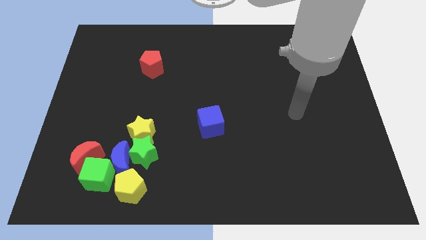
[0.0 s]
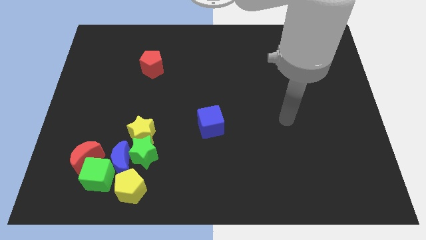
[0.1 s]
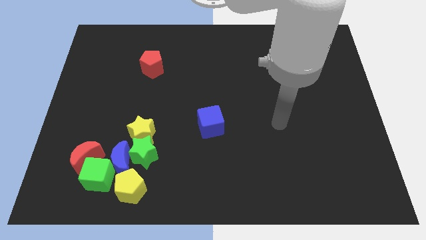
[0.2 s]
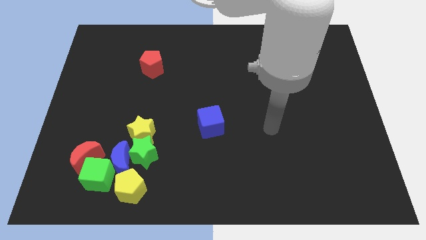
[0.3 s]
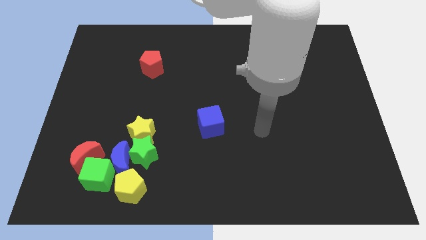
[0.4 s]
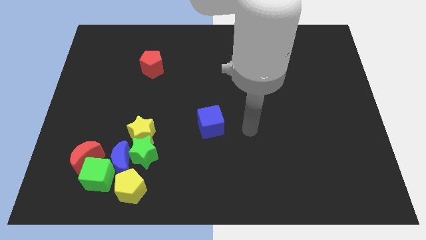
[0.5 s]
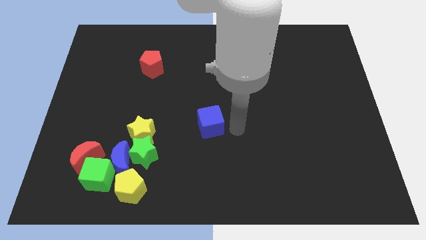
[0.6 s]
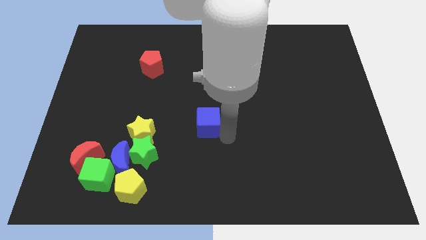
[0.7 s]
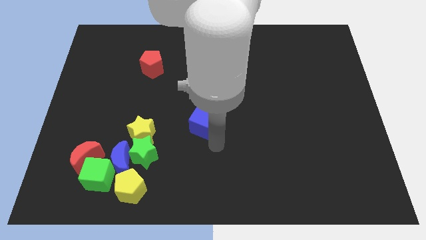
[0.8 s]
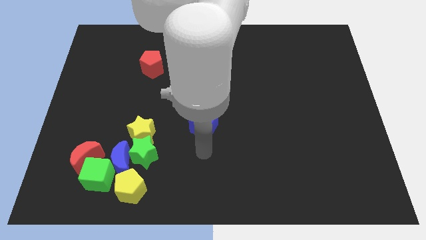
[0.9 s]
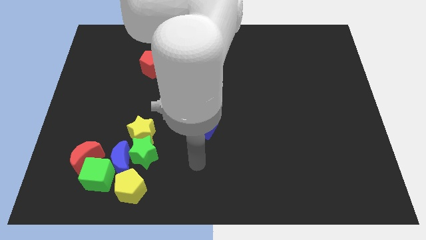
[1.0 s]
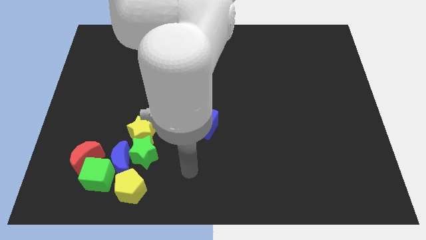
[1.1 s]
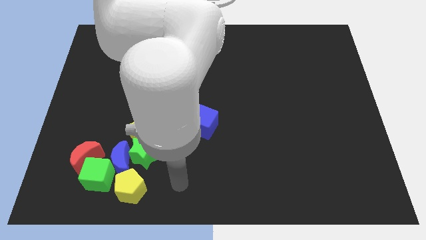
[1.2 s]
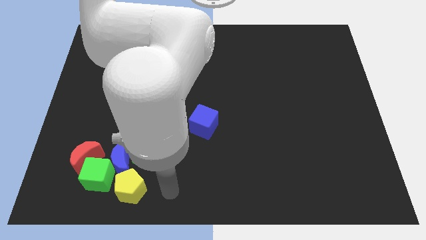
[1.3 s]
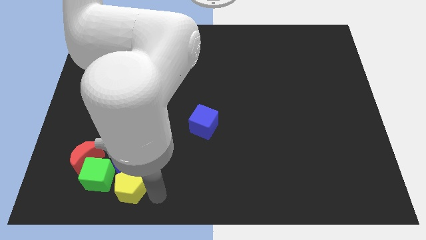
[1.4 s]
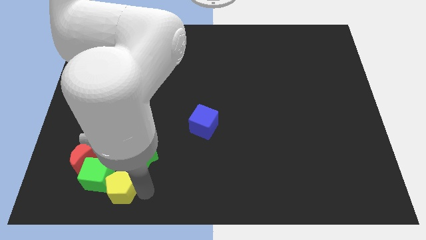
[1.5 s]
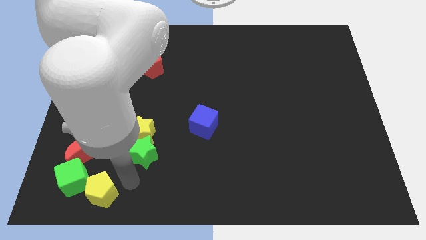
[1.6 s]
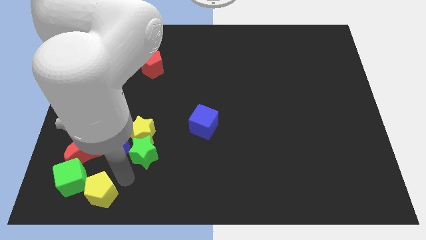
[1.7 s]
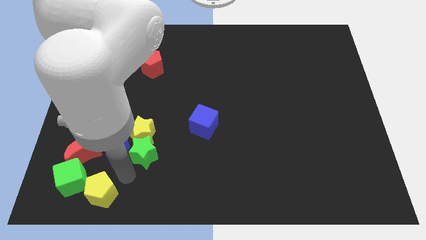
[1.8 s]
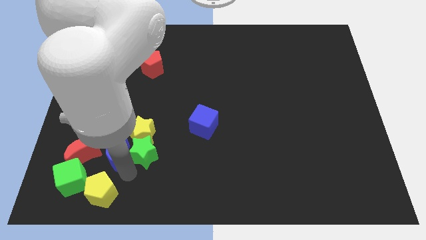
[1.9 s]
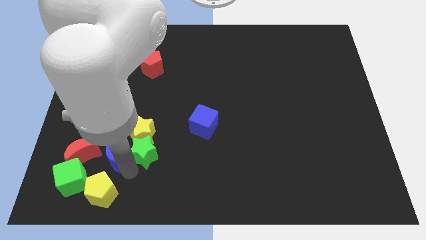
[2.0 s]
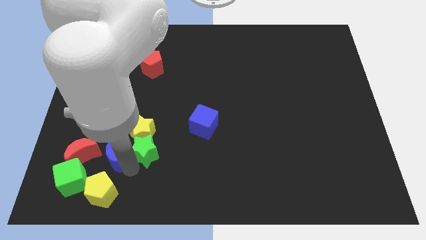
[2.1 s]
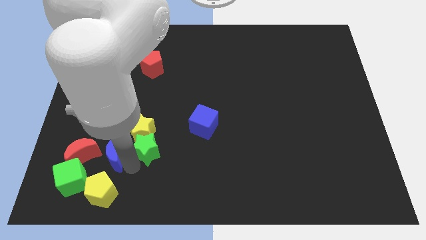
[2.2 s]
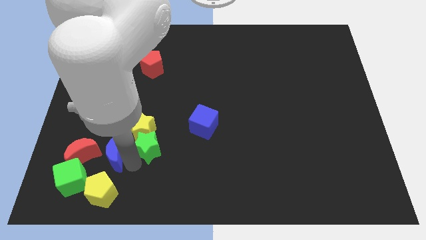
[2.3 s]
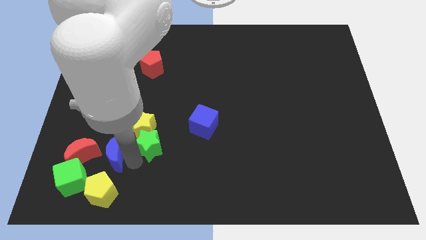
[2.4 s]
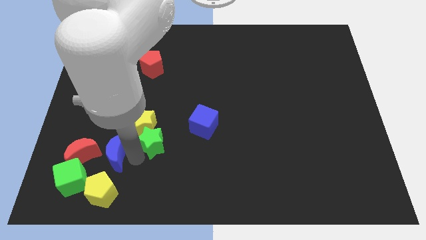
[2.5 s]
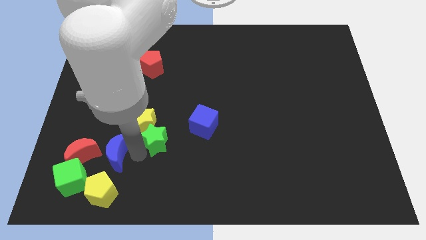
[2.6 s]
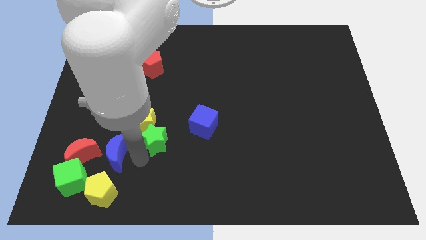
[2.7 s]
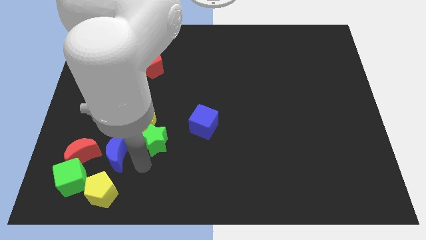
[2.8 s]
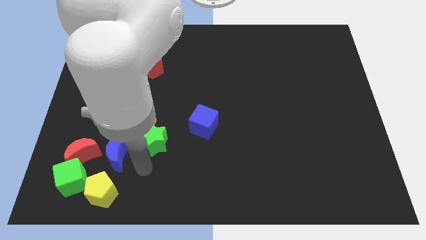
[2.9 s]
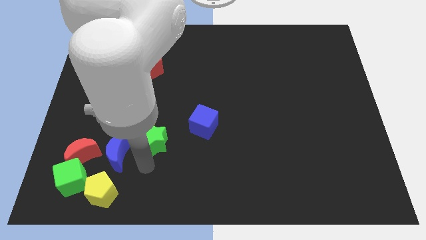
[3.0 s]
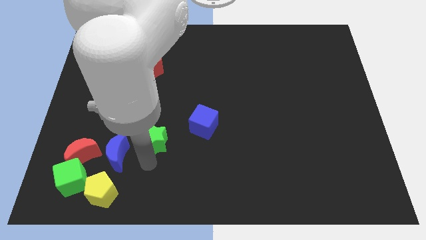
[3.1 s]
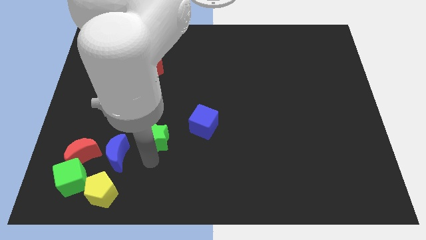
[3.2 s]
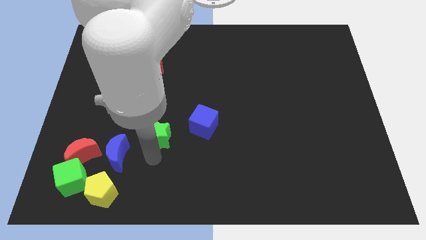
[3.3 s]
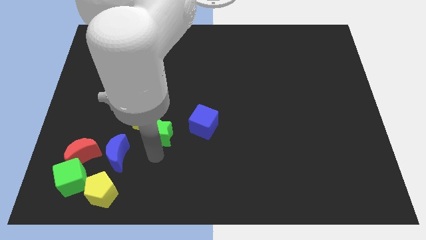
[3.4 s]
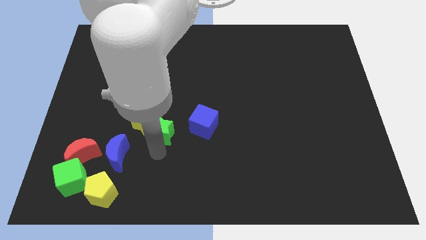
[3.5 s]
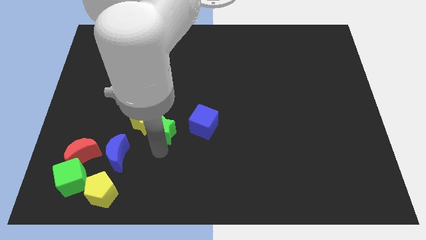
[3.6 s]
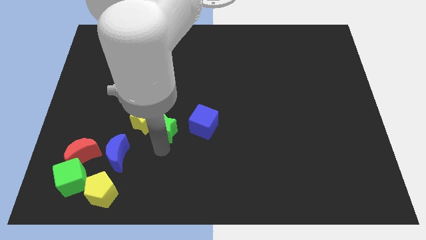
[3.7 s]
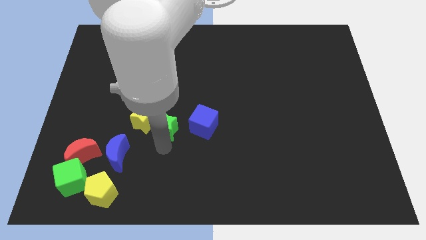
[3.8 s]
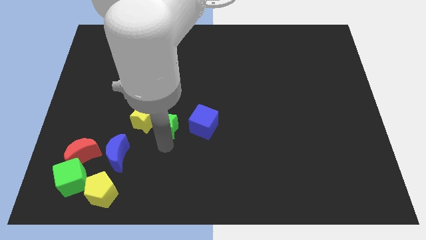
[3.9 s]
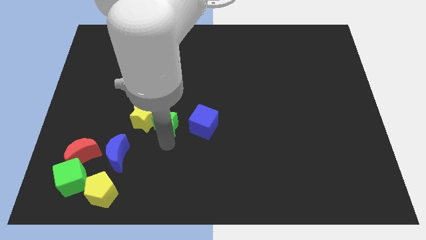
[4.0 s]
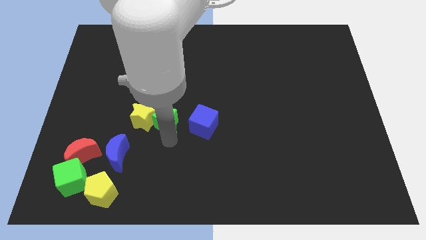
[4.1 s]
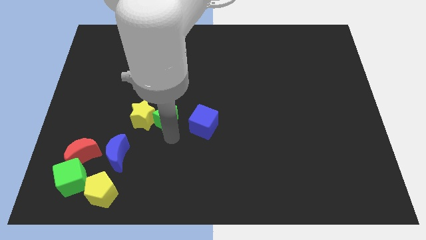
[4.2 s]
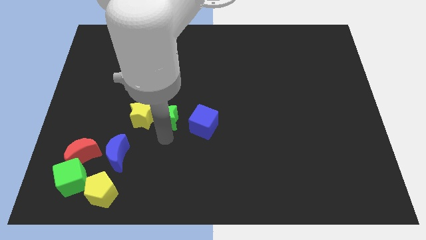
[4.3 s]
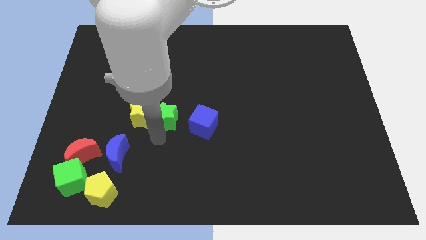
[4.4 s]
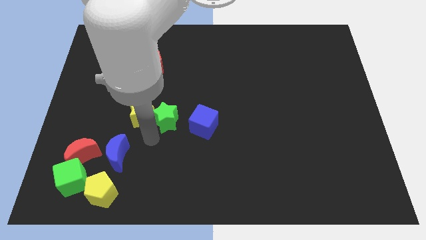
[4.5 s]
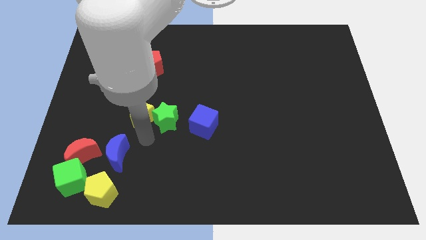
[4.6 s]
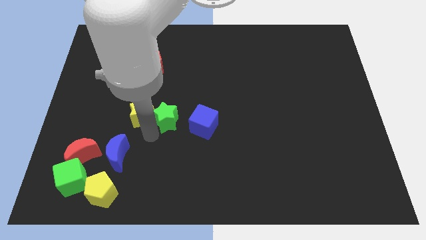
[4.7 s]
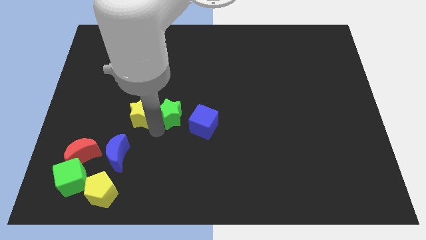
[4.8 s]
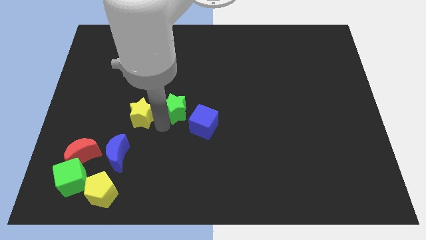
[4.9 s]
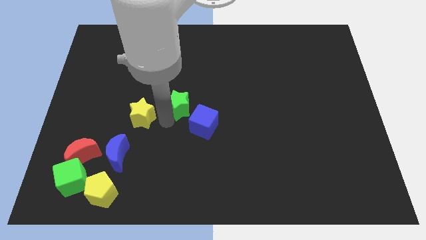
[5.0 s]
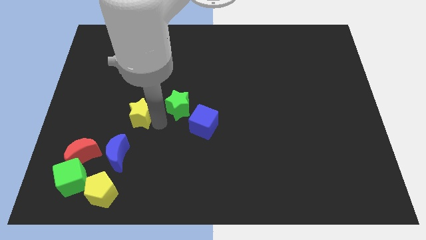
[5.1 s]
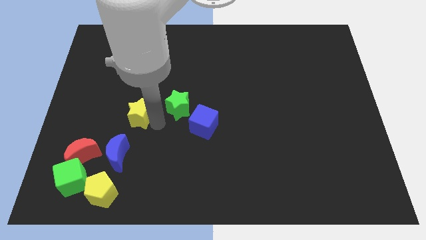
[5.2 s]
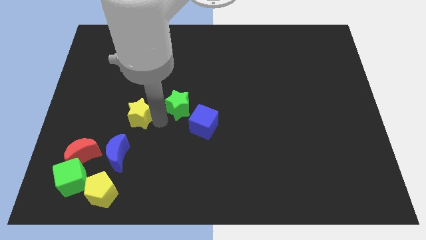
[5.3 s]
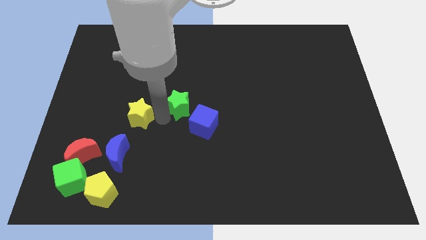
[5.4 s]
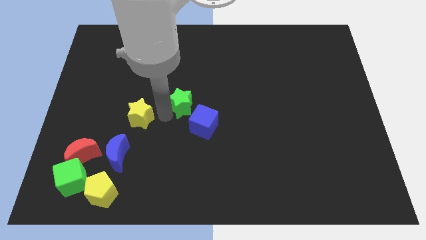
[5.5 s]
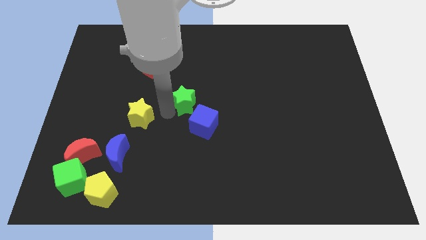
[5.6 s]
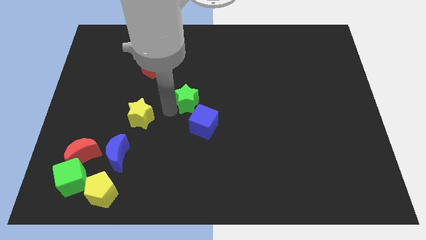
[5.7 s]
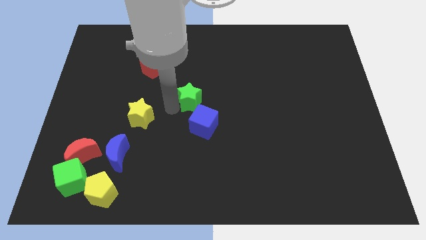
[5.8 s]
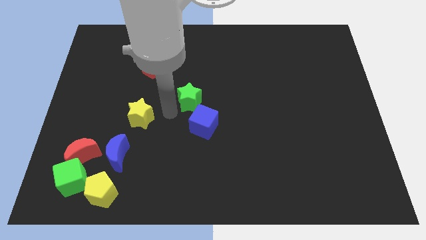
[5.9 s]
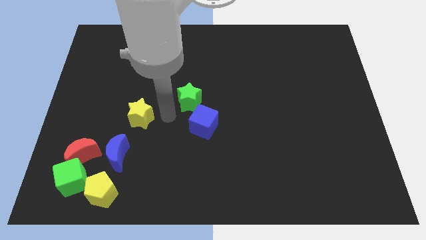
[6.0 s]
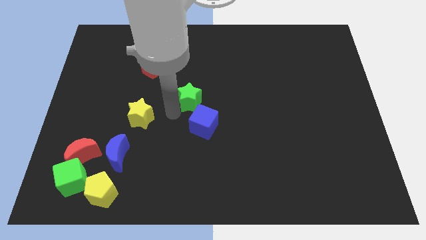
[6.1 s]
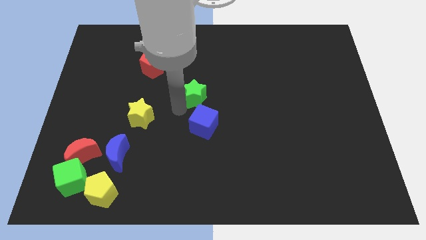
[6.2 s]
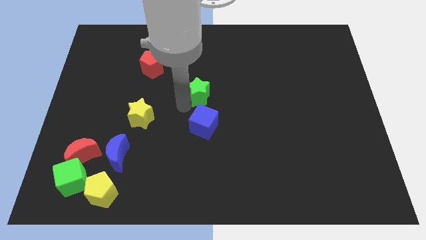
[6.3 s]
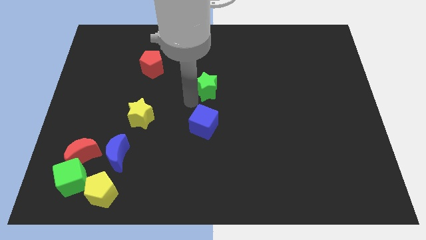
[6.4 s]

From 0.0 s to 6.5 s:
move the green star up and then to the right

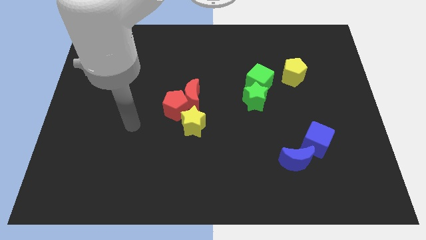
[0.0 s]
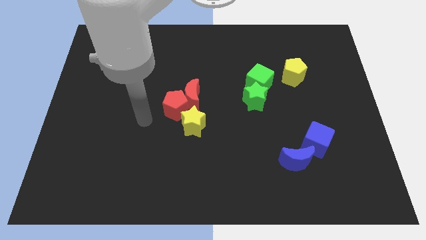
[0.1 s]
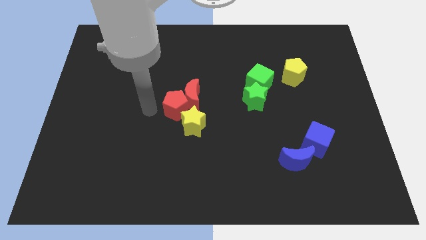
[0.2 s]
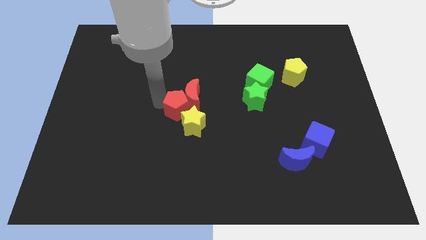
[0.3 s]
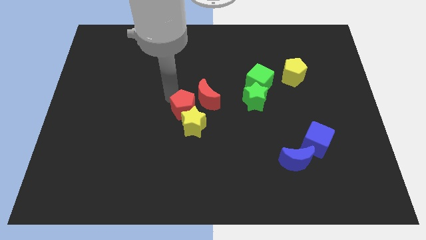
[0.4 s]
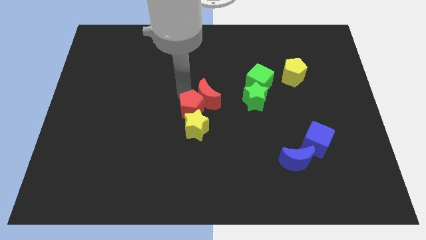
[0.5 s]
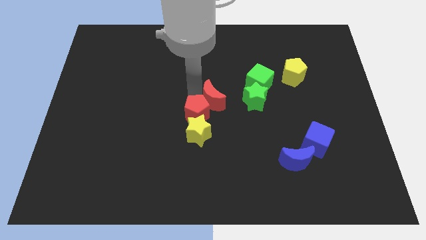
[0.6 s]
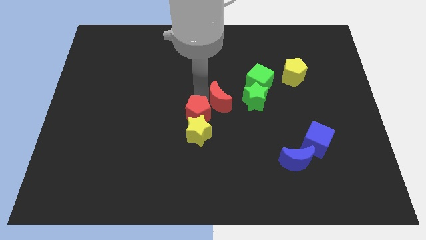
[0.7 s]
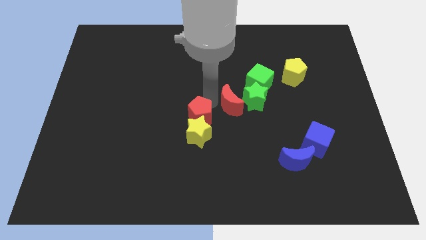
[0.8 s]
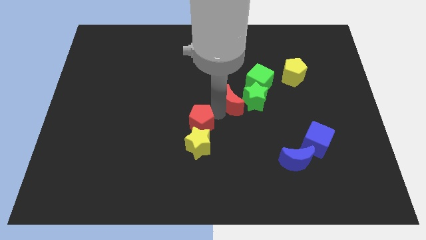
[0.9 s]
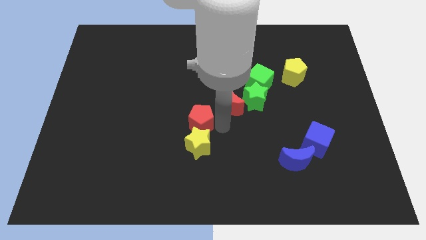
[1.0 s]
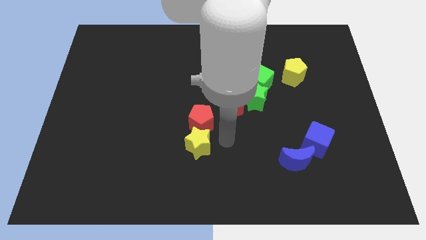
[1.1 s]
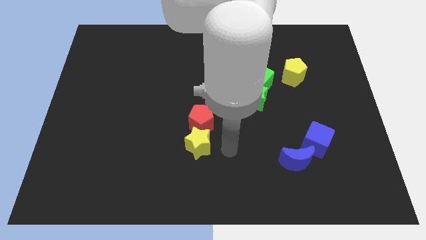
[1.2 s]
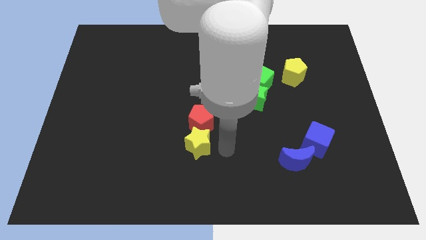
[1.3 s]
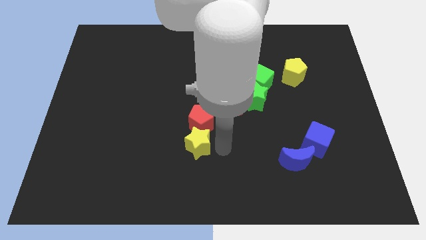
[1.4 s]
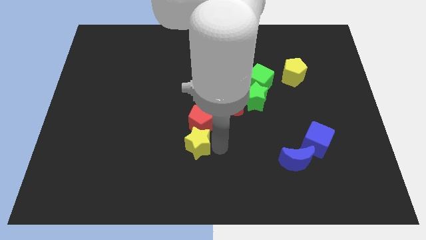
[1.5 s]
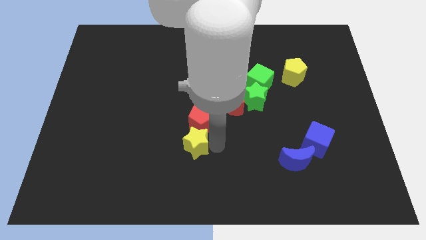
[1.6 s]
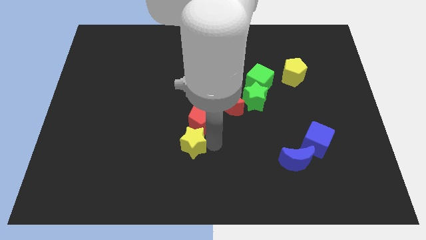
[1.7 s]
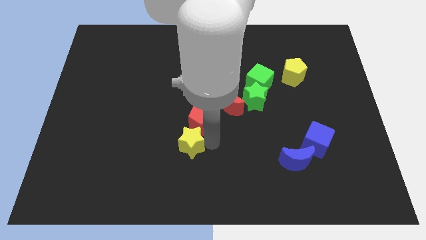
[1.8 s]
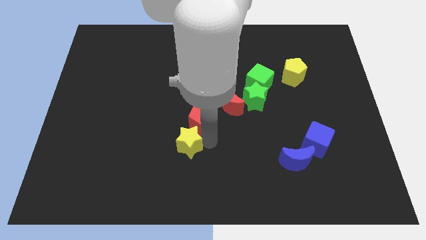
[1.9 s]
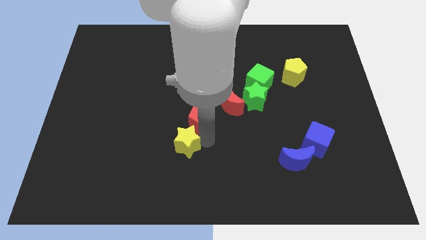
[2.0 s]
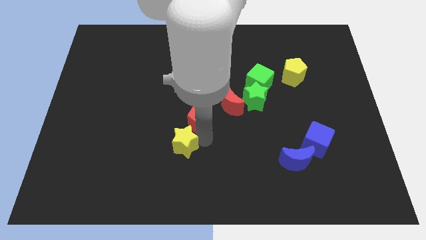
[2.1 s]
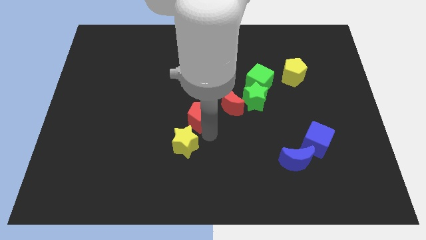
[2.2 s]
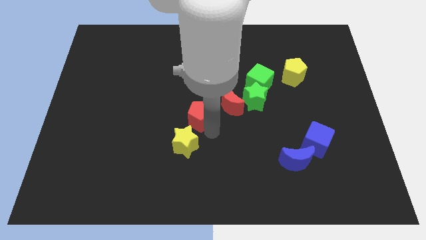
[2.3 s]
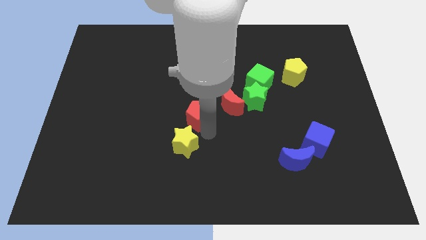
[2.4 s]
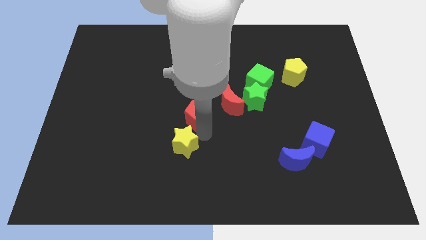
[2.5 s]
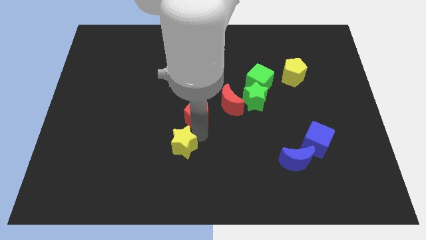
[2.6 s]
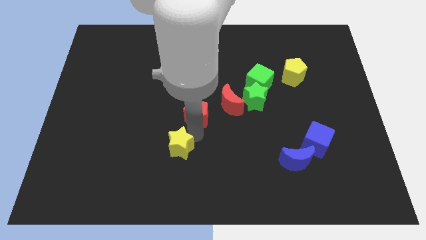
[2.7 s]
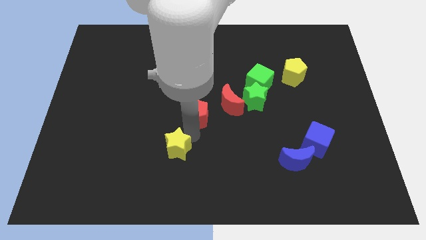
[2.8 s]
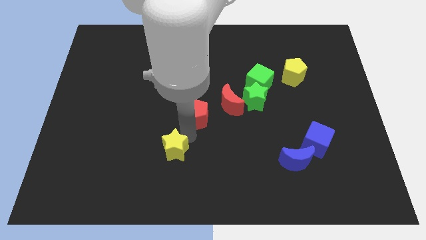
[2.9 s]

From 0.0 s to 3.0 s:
slide the yellow star somewhat downwards and then to the left
